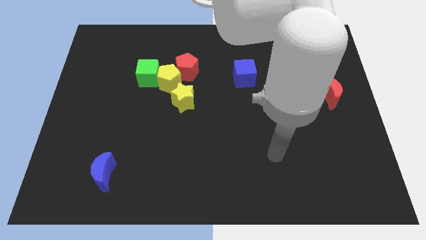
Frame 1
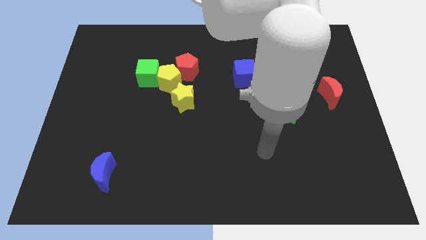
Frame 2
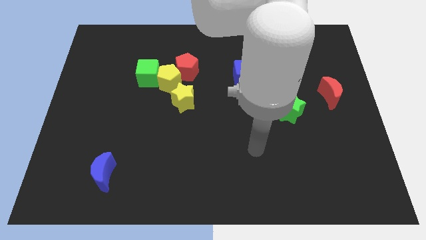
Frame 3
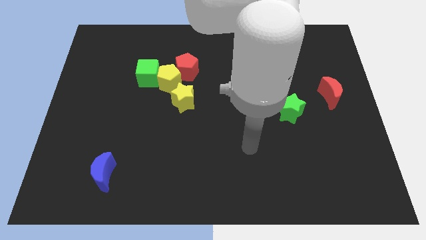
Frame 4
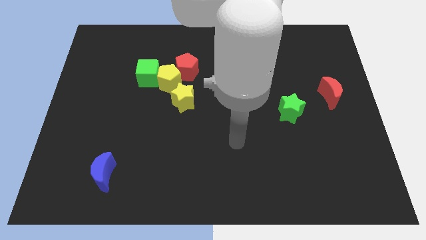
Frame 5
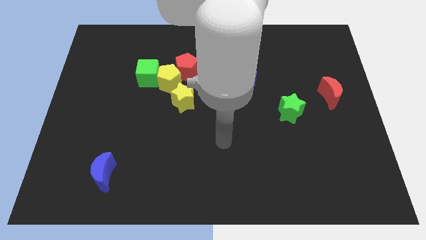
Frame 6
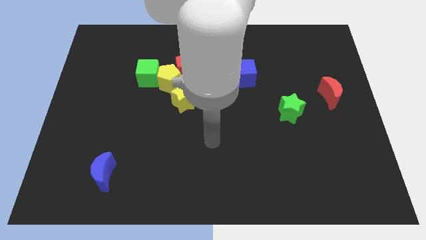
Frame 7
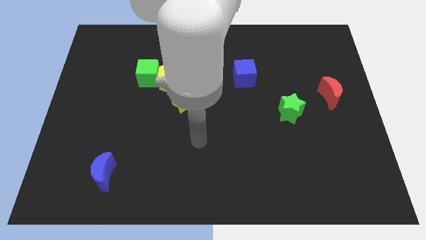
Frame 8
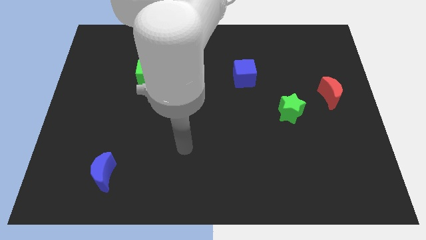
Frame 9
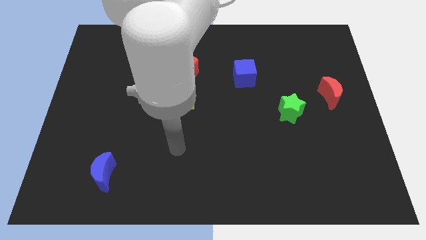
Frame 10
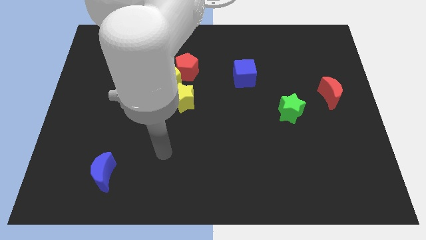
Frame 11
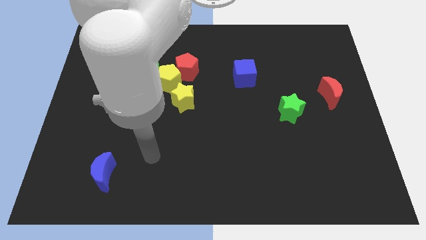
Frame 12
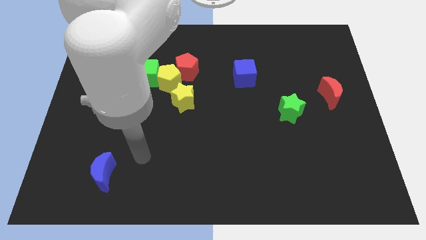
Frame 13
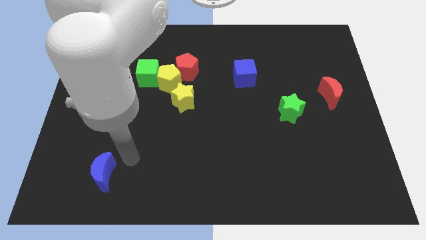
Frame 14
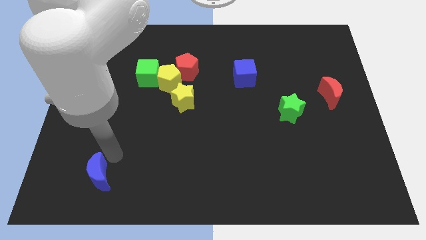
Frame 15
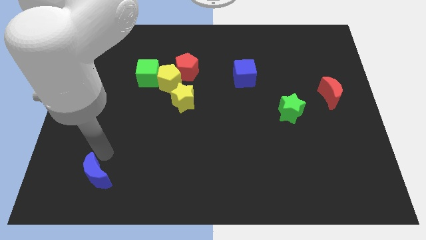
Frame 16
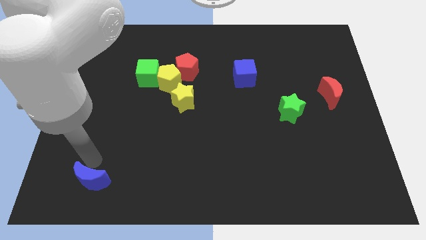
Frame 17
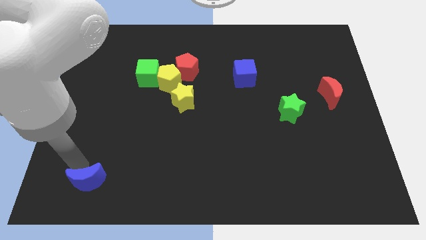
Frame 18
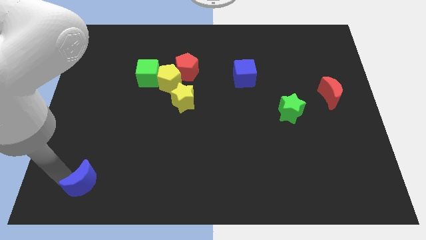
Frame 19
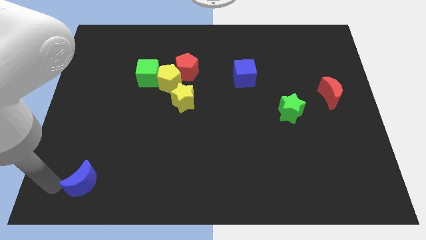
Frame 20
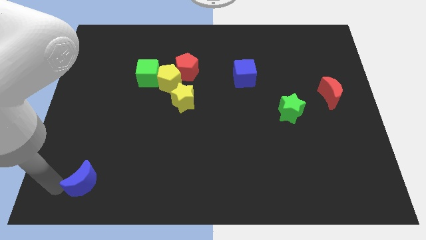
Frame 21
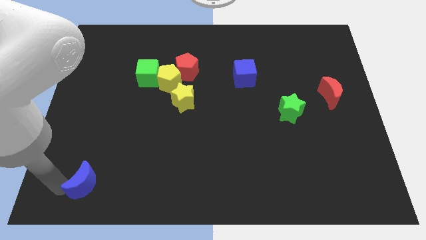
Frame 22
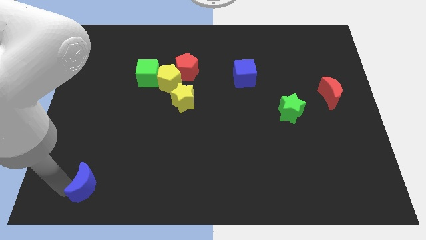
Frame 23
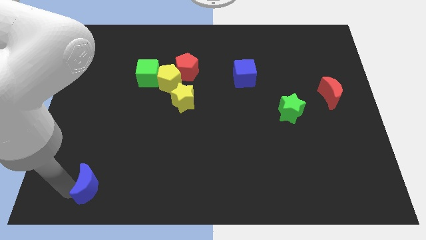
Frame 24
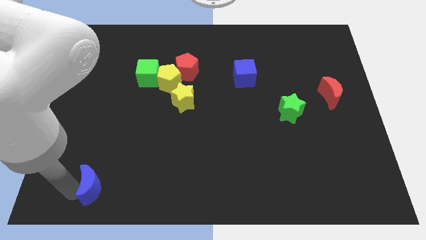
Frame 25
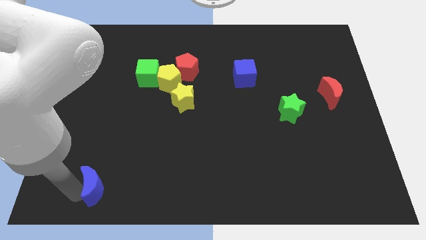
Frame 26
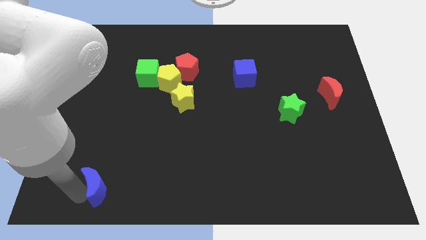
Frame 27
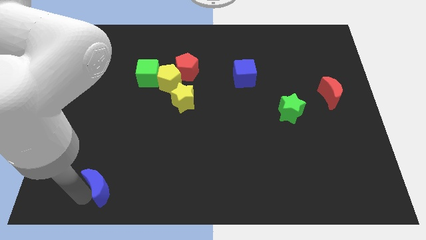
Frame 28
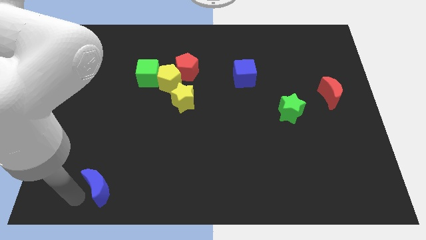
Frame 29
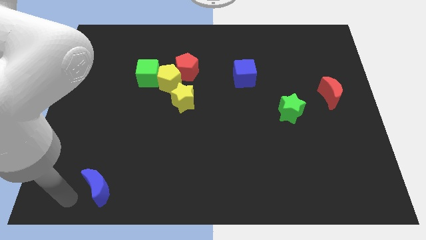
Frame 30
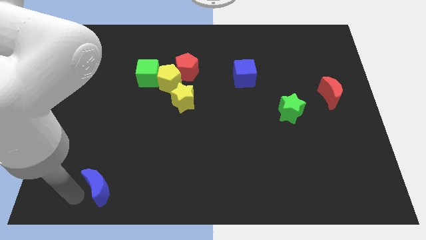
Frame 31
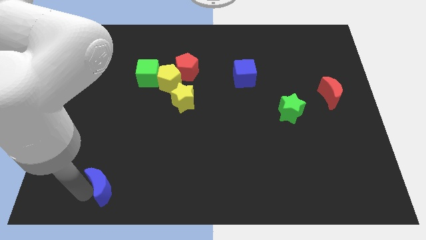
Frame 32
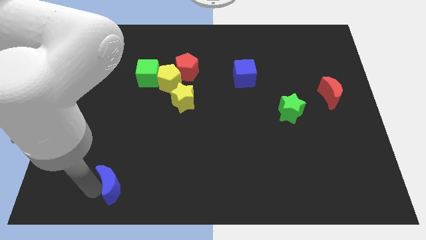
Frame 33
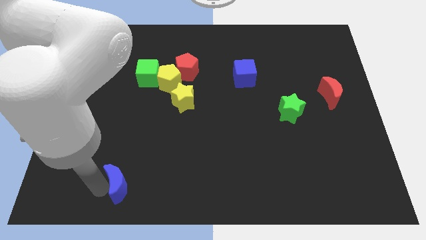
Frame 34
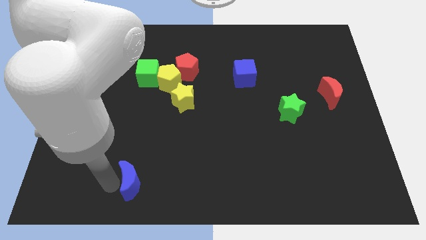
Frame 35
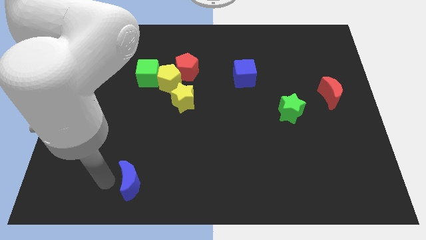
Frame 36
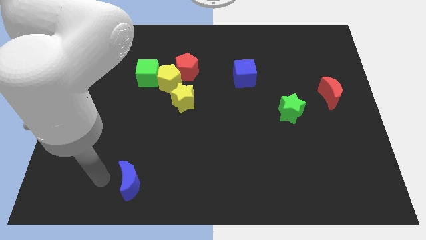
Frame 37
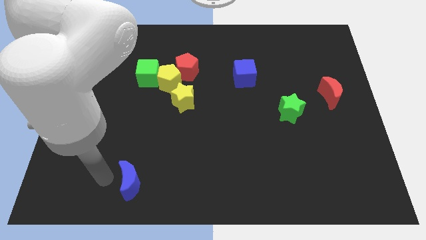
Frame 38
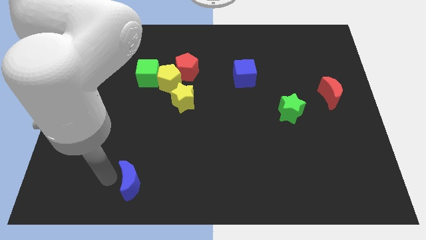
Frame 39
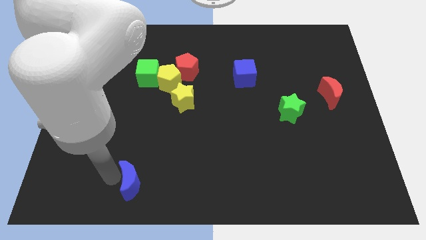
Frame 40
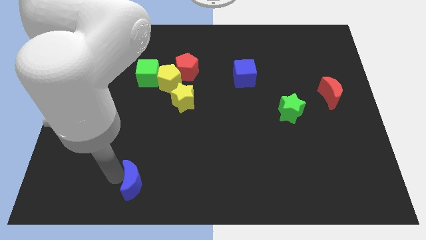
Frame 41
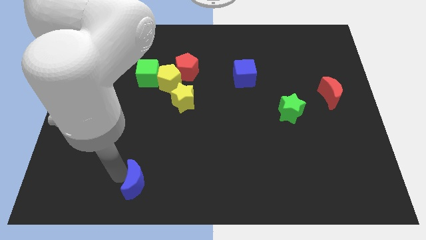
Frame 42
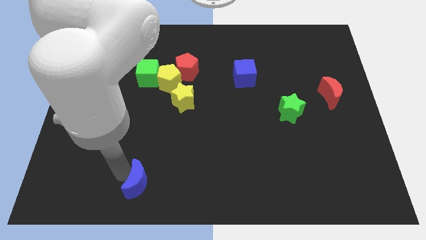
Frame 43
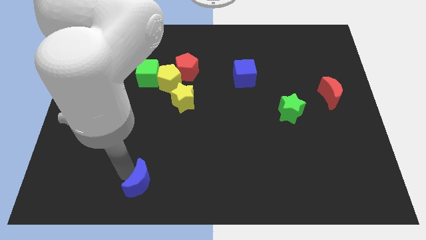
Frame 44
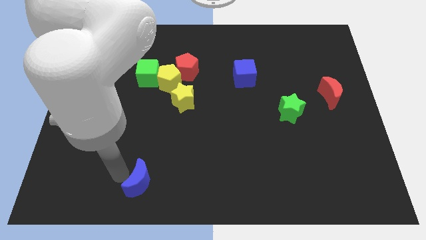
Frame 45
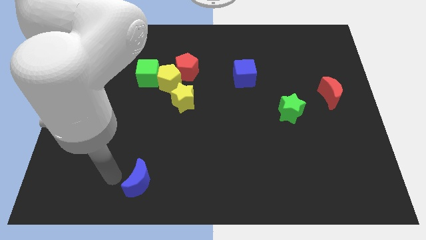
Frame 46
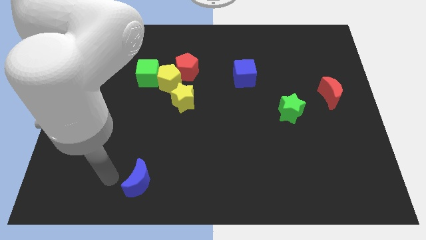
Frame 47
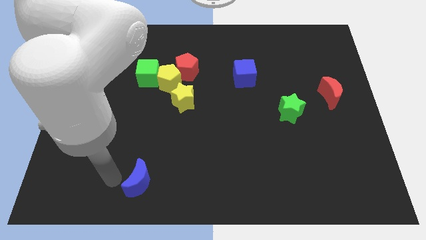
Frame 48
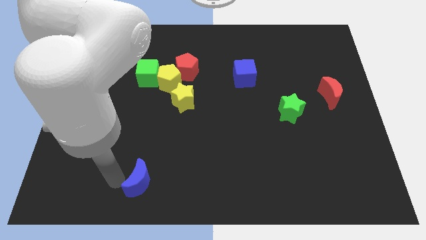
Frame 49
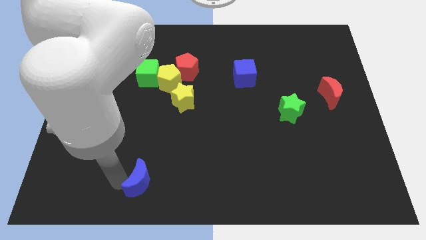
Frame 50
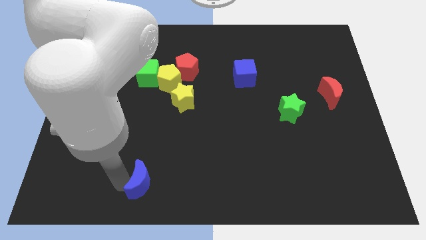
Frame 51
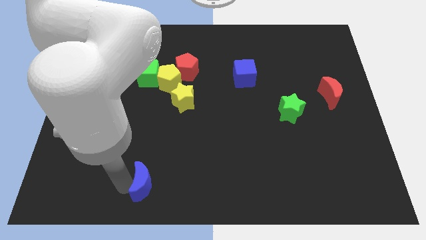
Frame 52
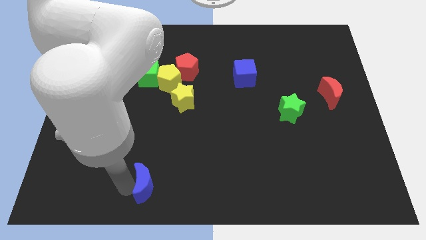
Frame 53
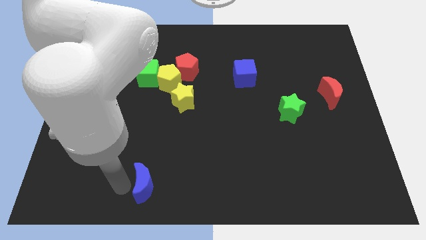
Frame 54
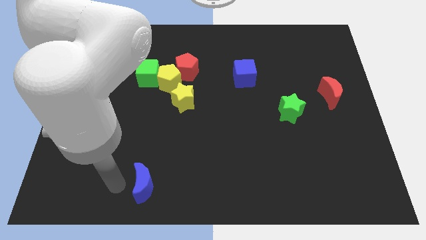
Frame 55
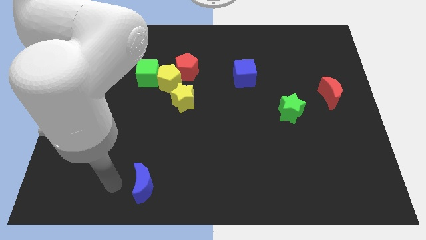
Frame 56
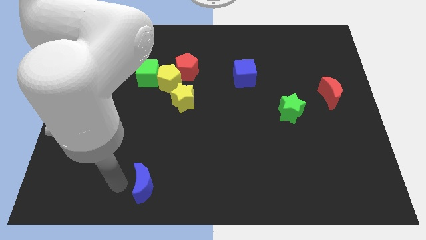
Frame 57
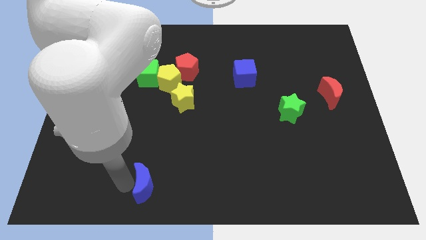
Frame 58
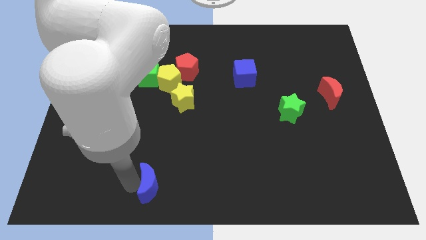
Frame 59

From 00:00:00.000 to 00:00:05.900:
slide the blue moon to the bottom side

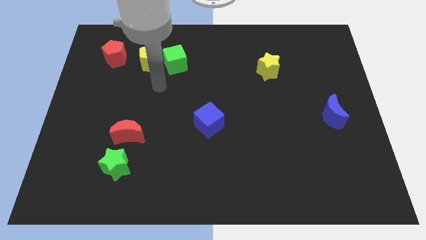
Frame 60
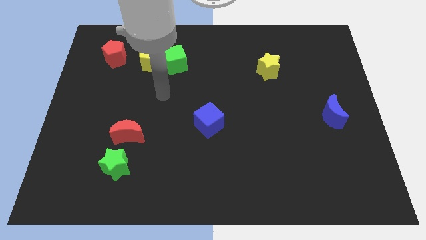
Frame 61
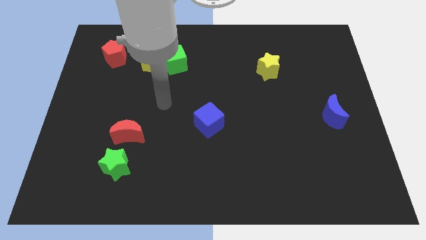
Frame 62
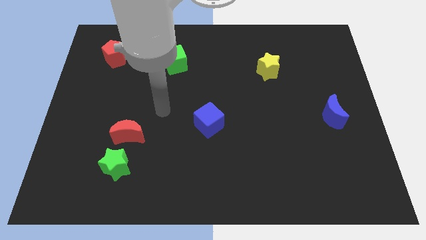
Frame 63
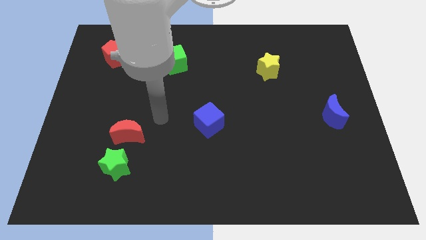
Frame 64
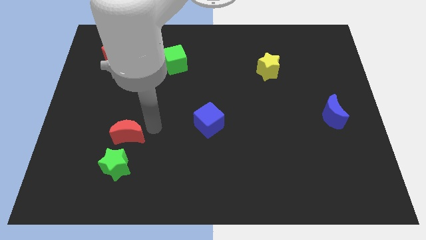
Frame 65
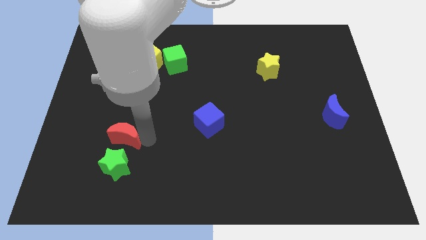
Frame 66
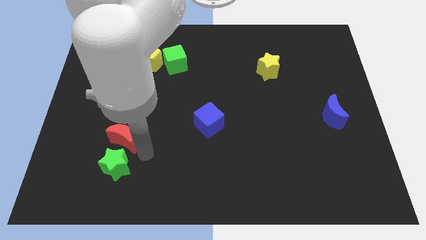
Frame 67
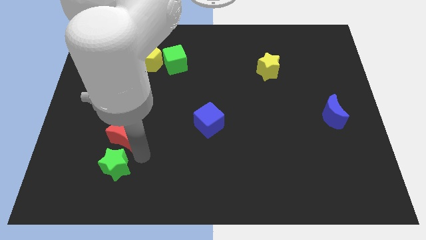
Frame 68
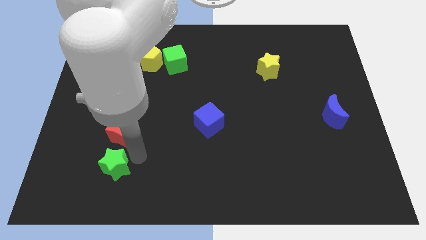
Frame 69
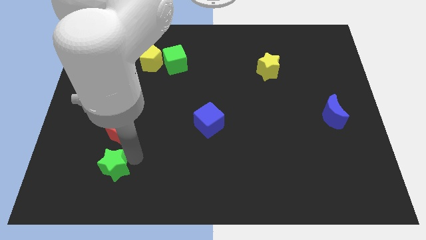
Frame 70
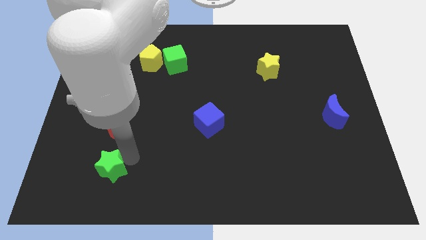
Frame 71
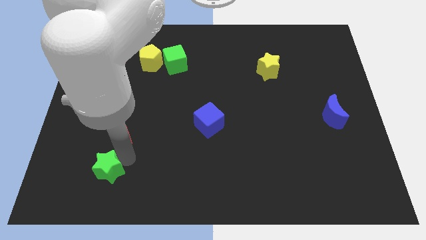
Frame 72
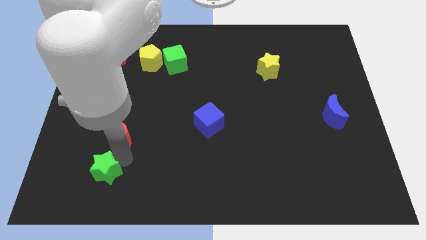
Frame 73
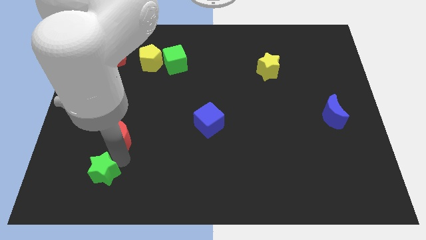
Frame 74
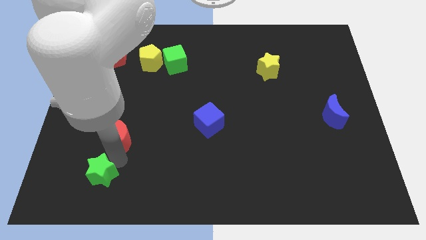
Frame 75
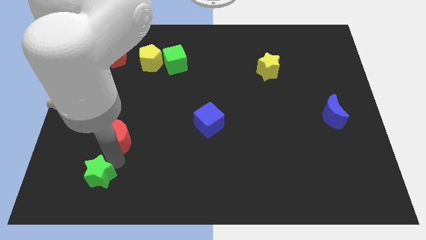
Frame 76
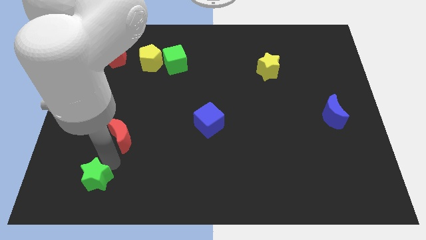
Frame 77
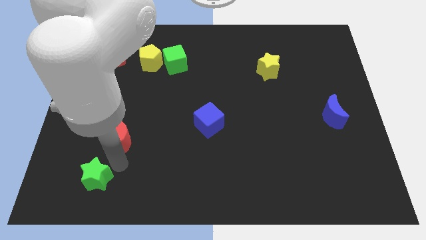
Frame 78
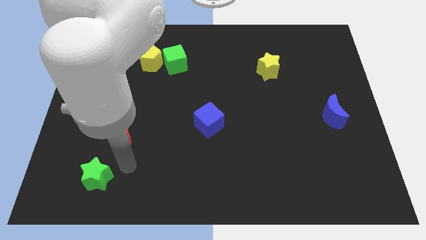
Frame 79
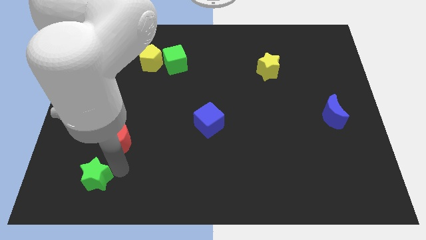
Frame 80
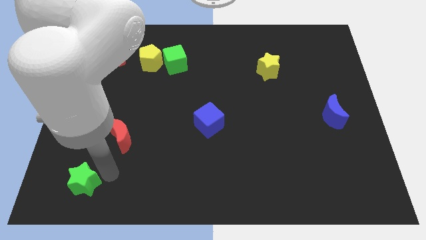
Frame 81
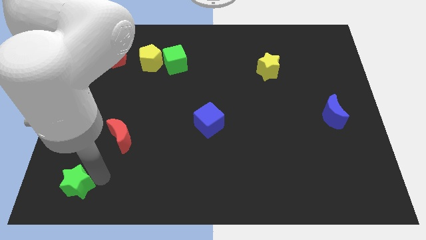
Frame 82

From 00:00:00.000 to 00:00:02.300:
move the green star to the bottom left corner
